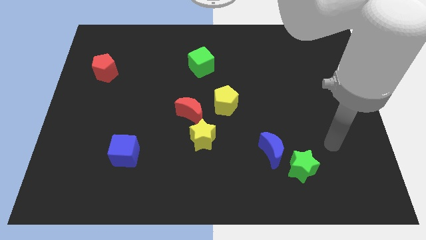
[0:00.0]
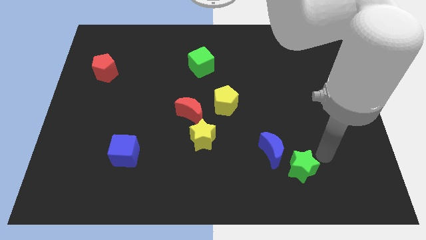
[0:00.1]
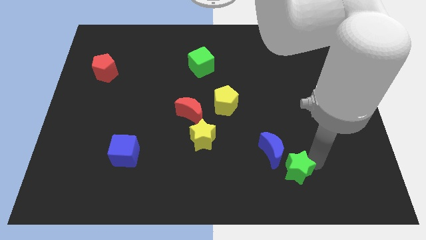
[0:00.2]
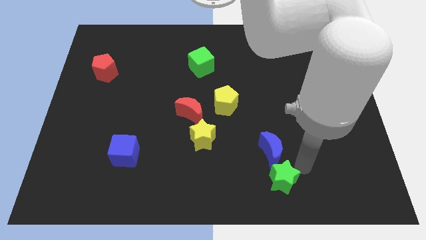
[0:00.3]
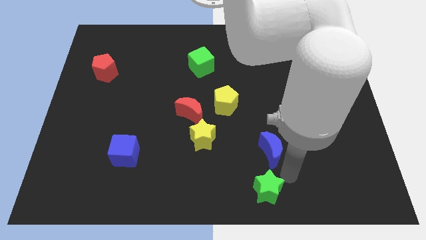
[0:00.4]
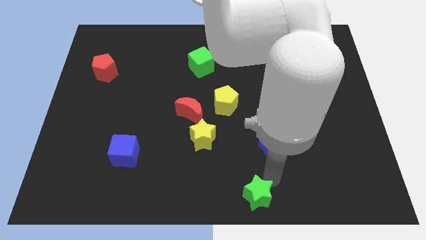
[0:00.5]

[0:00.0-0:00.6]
separate the blue moon from the green star

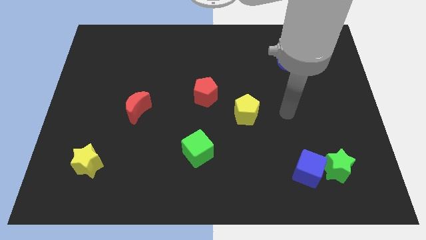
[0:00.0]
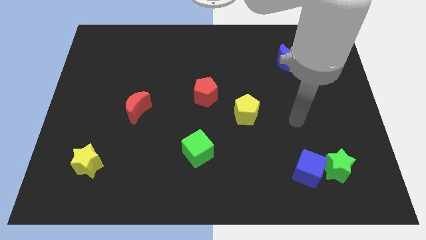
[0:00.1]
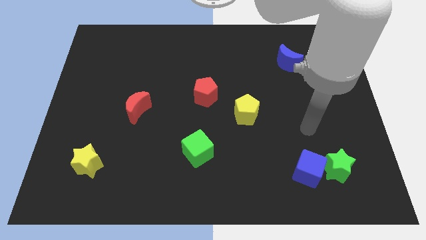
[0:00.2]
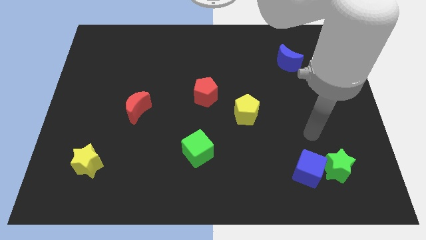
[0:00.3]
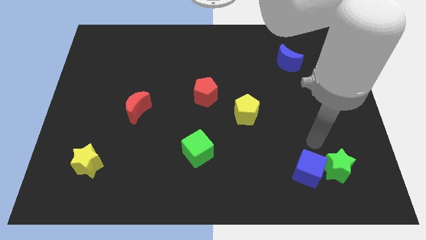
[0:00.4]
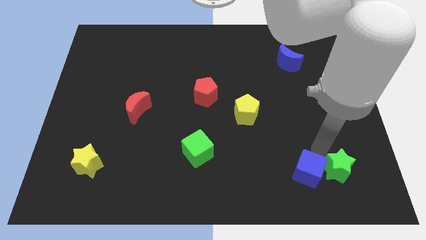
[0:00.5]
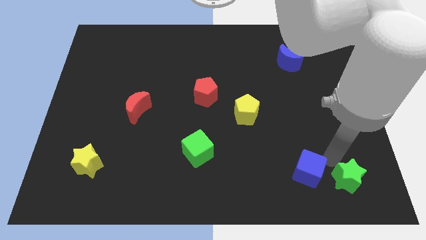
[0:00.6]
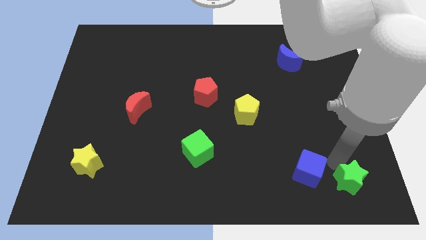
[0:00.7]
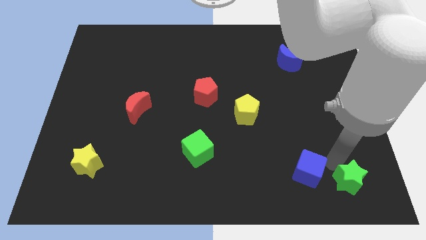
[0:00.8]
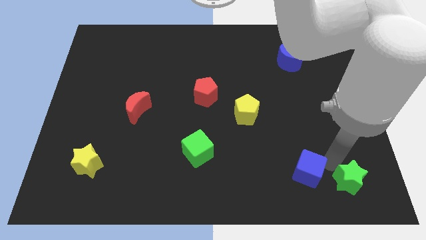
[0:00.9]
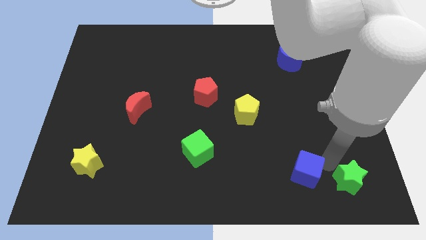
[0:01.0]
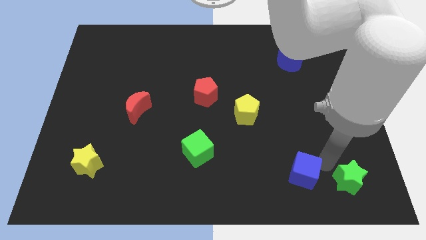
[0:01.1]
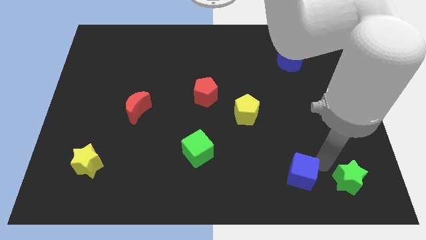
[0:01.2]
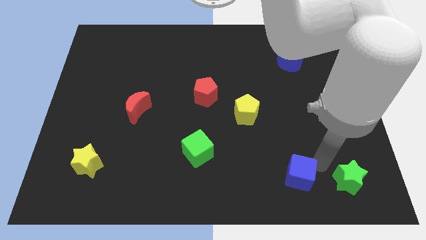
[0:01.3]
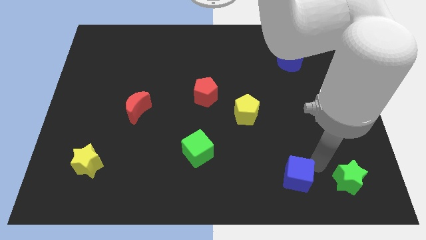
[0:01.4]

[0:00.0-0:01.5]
separate the blue cube from the green star

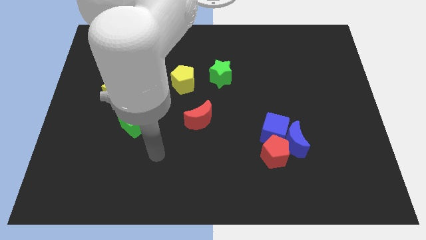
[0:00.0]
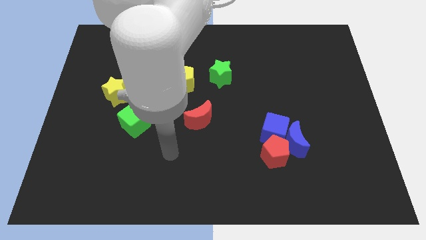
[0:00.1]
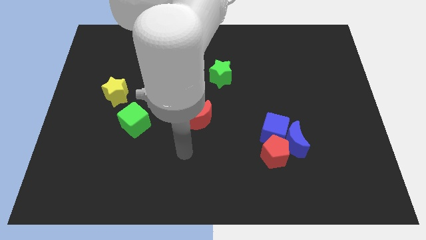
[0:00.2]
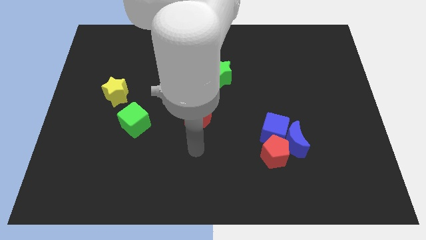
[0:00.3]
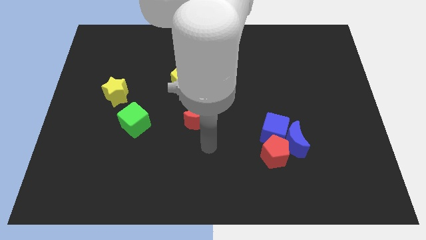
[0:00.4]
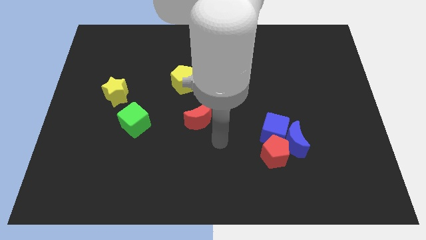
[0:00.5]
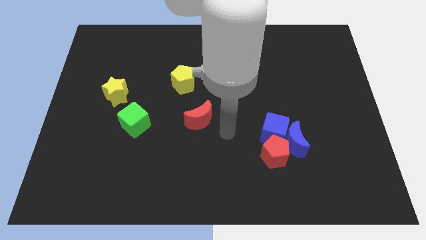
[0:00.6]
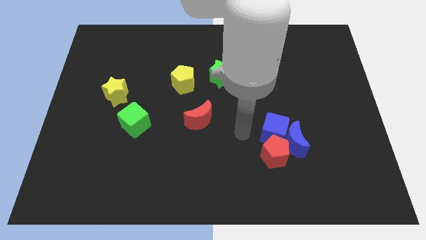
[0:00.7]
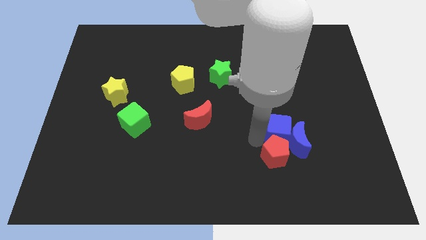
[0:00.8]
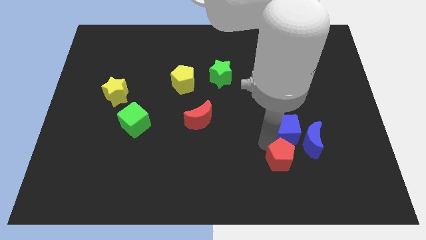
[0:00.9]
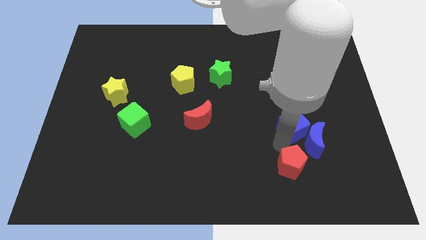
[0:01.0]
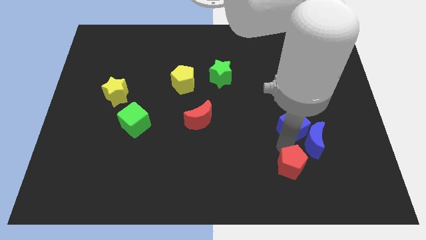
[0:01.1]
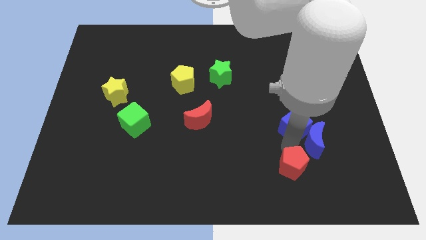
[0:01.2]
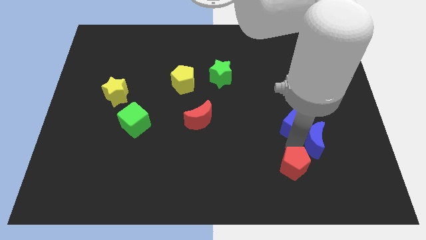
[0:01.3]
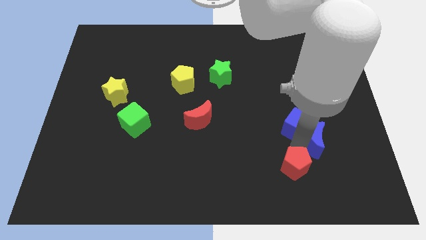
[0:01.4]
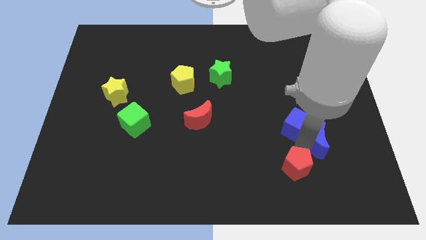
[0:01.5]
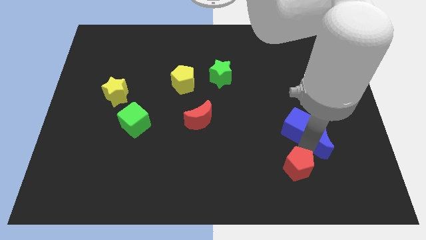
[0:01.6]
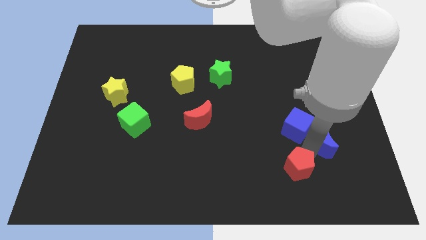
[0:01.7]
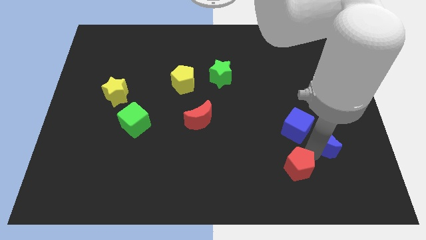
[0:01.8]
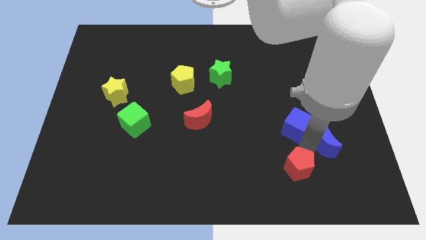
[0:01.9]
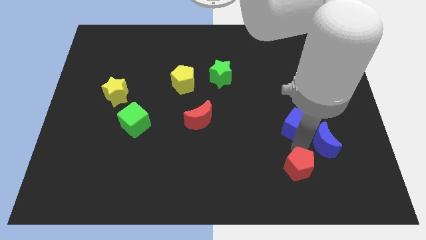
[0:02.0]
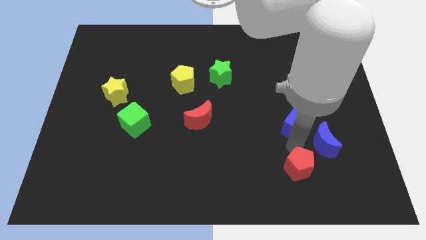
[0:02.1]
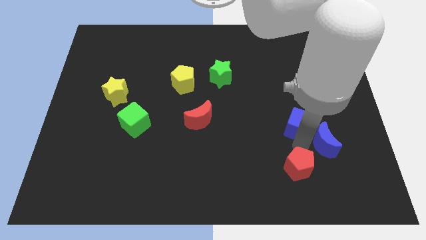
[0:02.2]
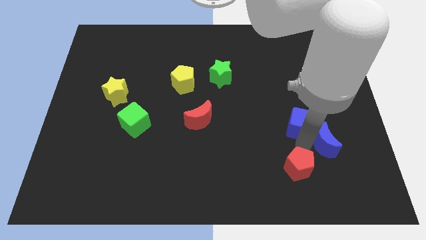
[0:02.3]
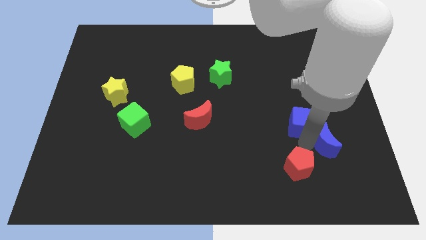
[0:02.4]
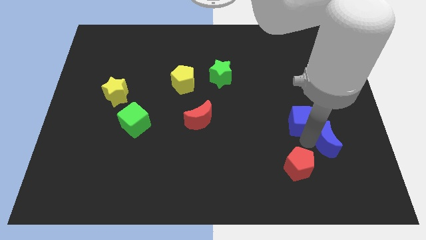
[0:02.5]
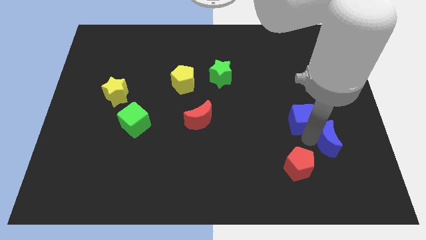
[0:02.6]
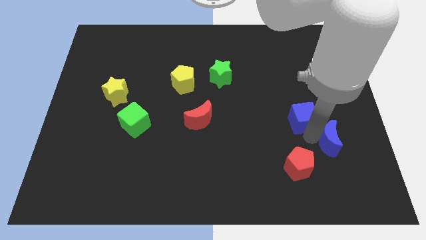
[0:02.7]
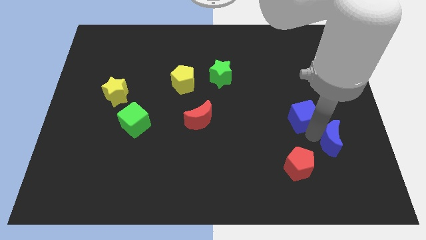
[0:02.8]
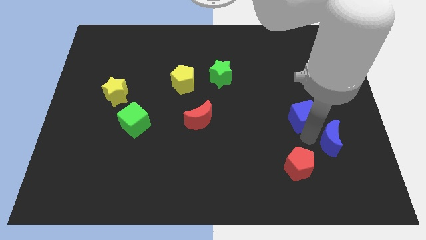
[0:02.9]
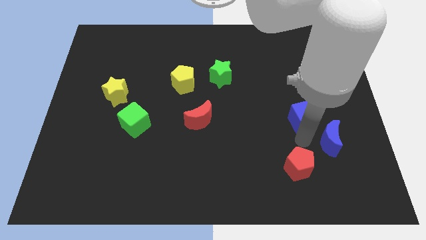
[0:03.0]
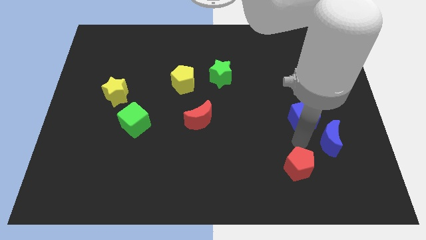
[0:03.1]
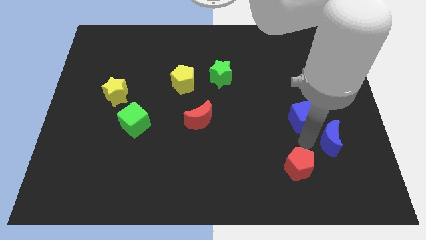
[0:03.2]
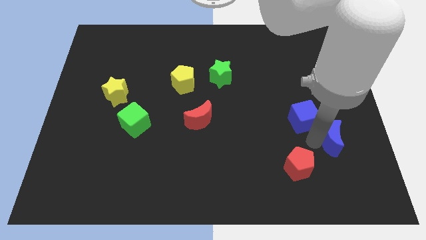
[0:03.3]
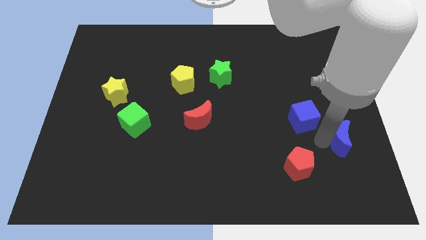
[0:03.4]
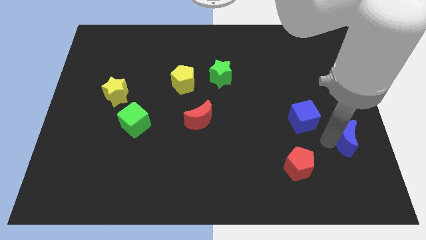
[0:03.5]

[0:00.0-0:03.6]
separate the blue moon from the blue cube and red pentagon

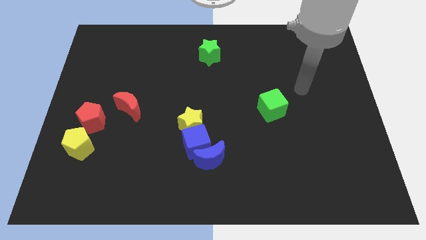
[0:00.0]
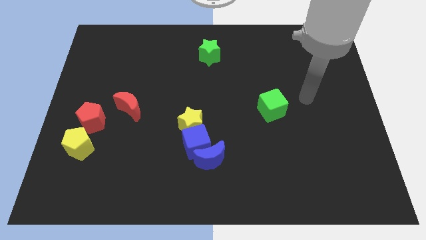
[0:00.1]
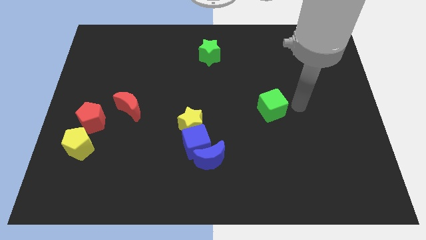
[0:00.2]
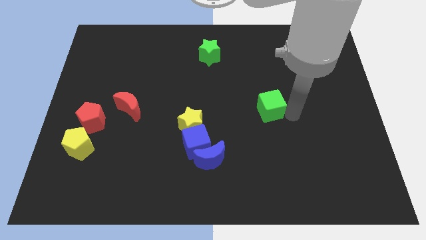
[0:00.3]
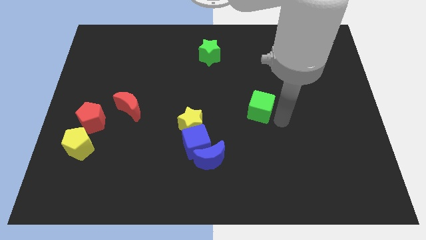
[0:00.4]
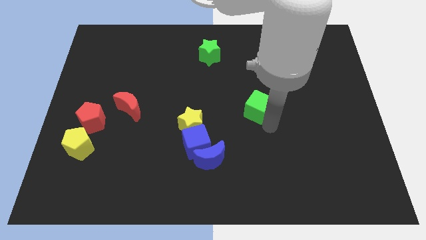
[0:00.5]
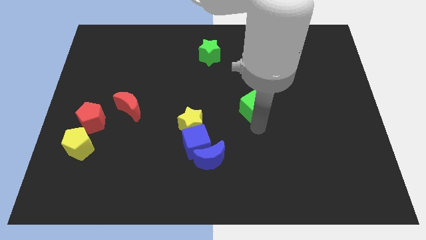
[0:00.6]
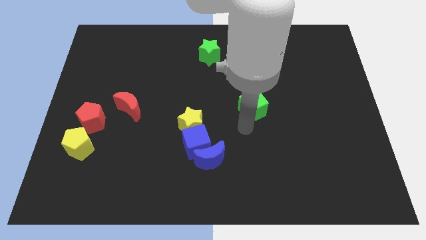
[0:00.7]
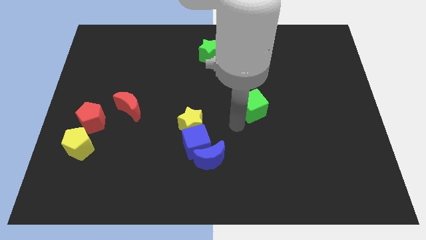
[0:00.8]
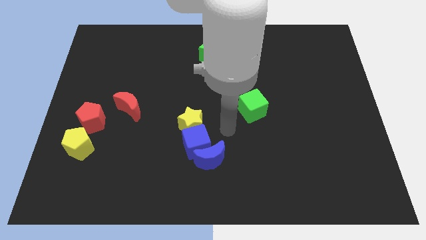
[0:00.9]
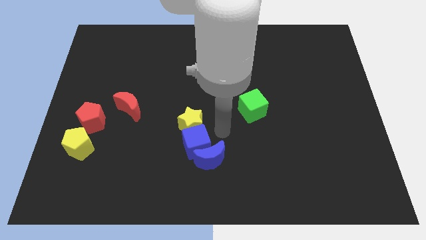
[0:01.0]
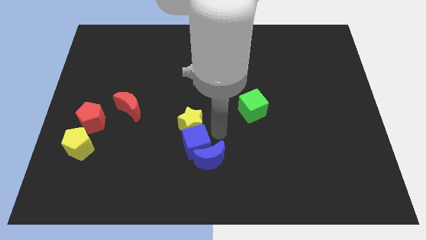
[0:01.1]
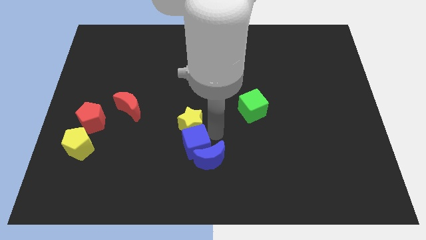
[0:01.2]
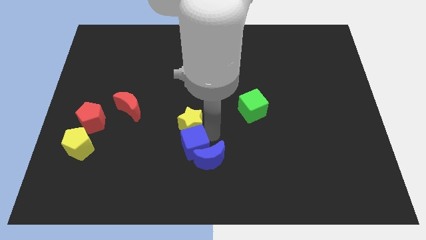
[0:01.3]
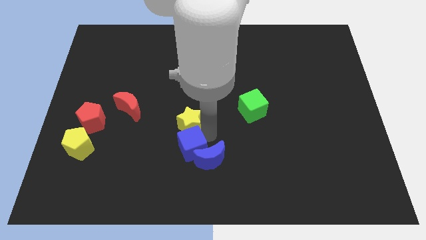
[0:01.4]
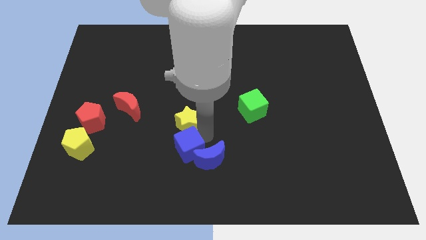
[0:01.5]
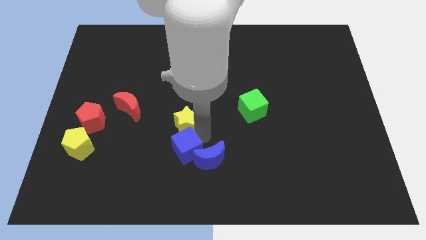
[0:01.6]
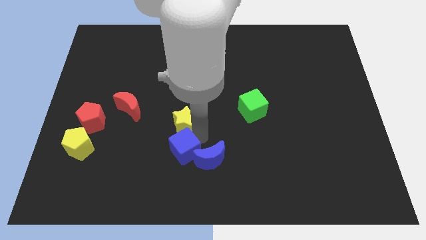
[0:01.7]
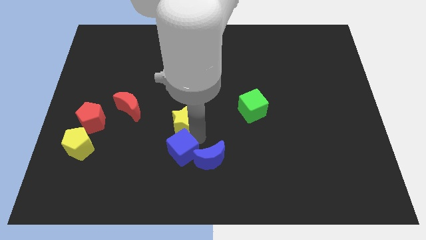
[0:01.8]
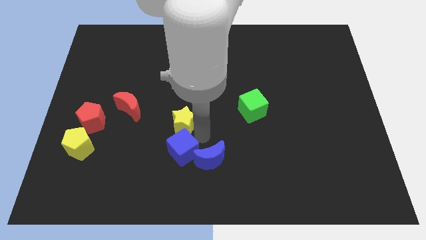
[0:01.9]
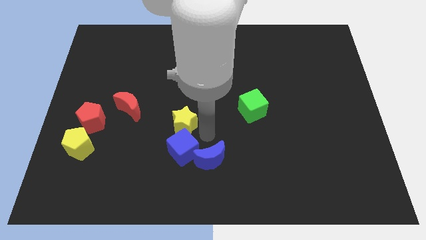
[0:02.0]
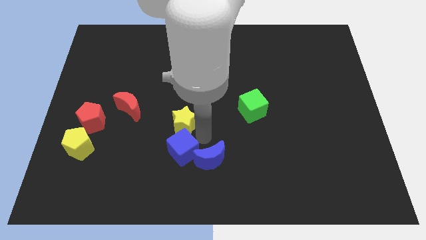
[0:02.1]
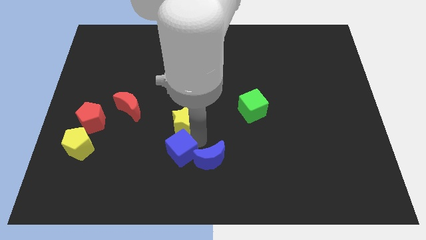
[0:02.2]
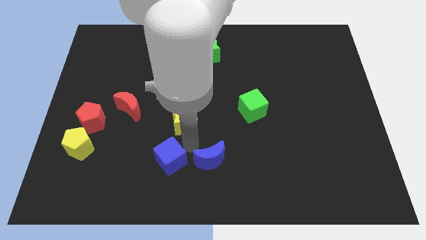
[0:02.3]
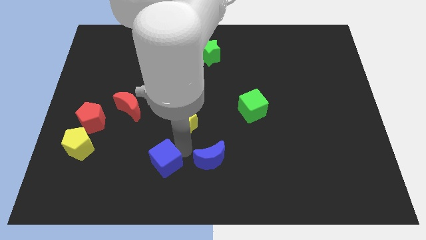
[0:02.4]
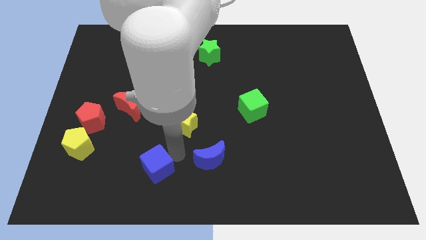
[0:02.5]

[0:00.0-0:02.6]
separate the blue cube from the blue moon and yellow star

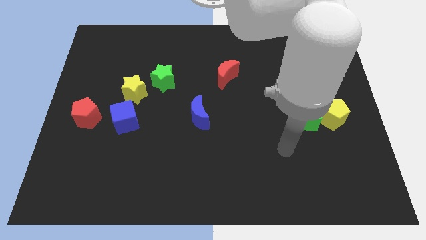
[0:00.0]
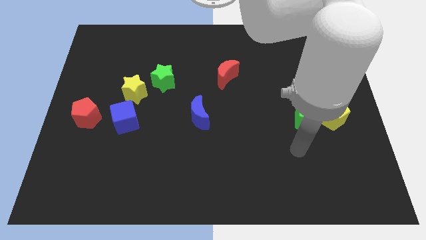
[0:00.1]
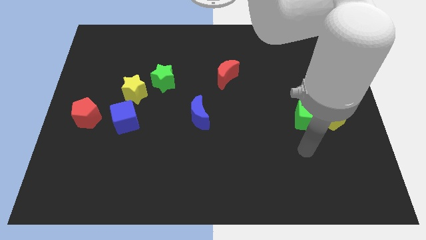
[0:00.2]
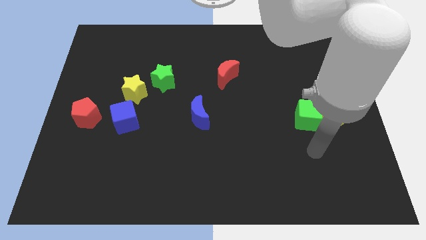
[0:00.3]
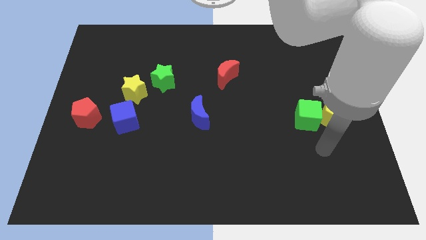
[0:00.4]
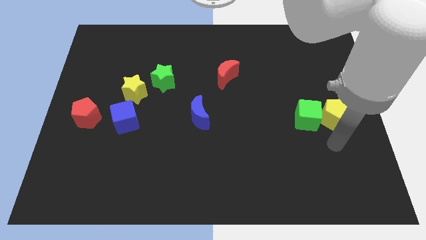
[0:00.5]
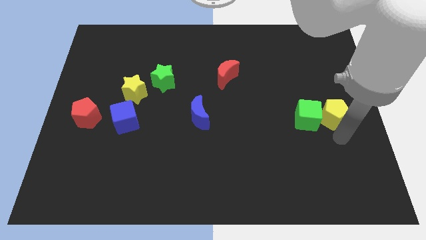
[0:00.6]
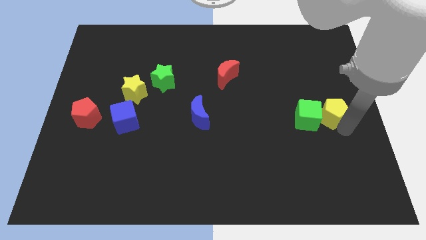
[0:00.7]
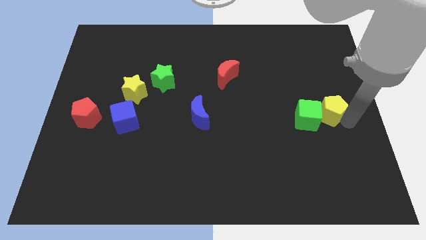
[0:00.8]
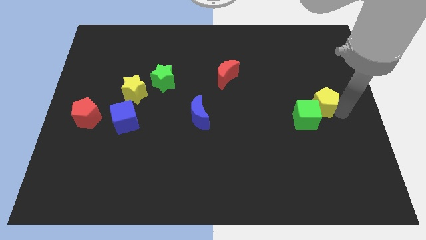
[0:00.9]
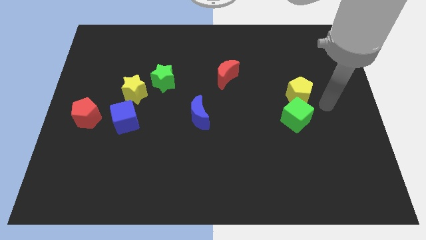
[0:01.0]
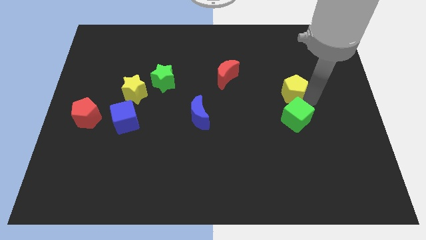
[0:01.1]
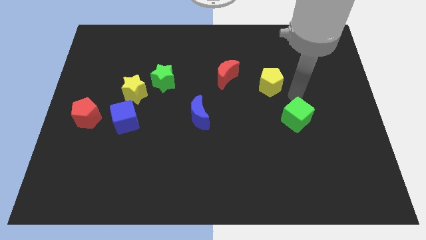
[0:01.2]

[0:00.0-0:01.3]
separate the green cube from the yellow pentagon
